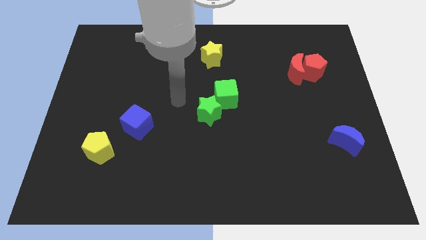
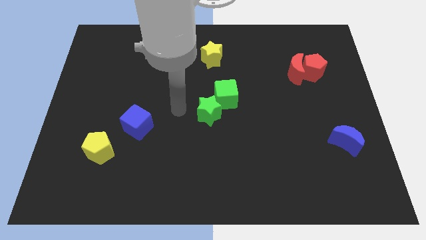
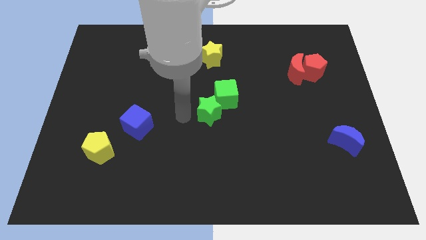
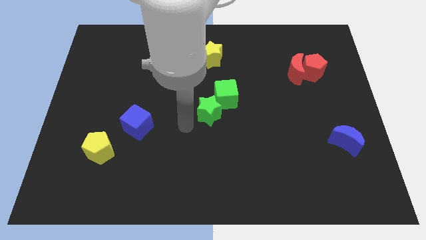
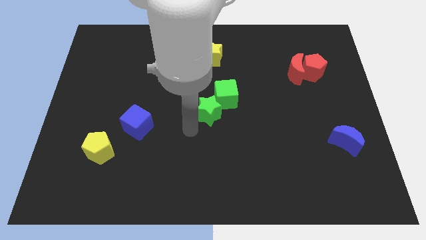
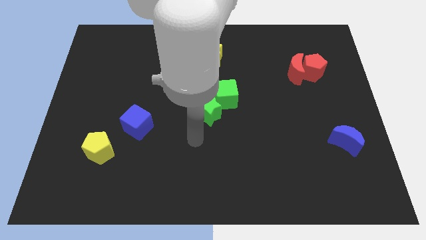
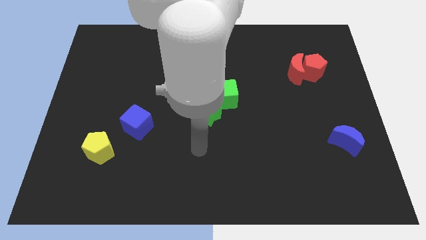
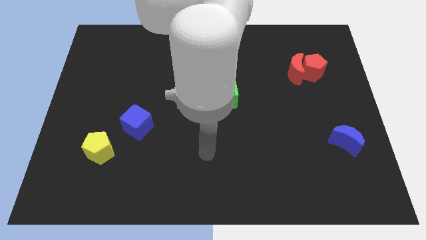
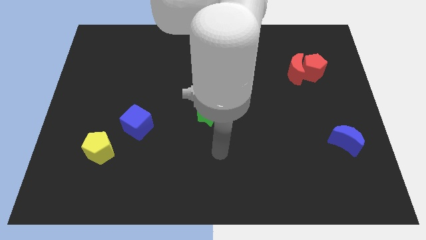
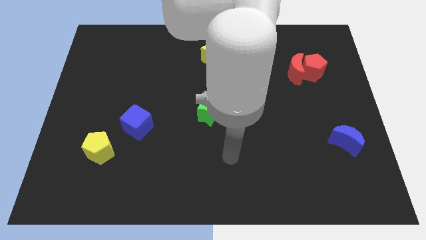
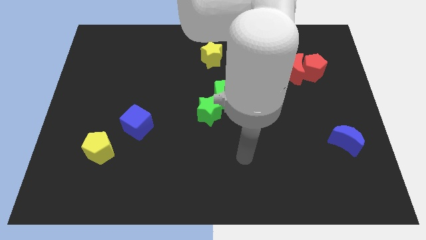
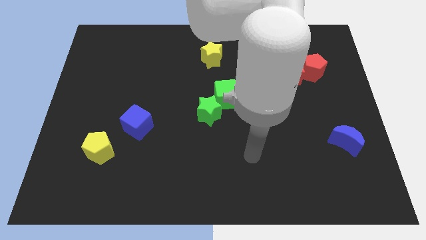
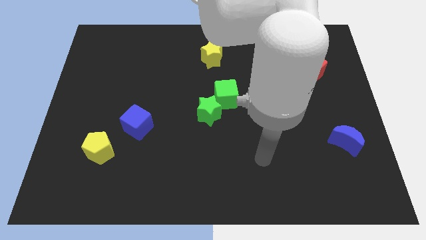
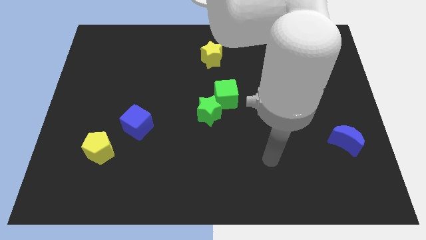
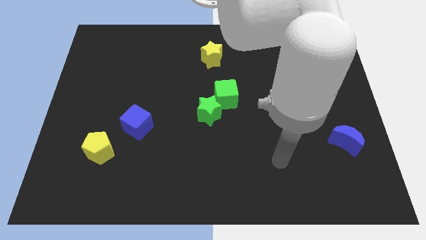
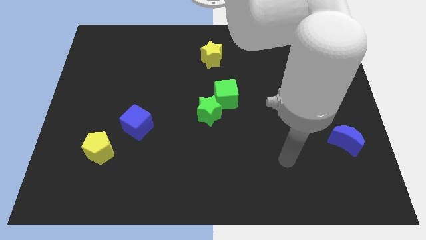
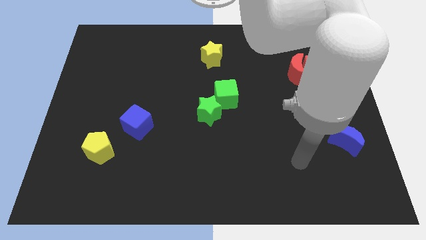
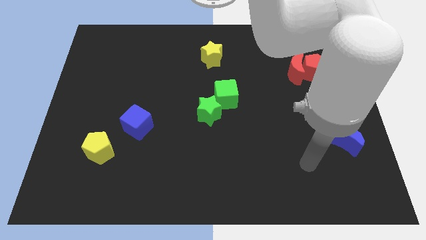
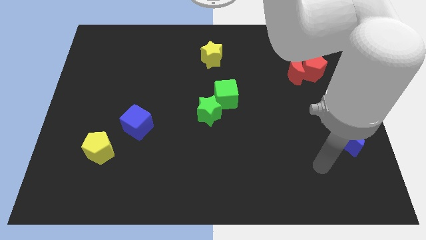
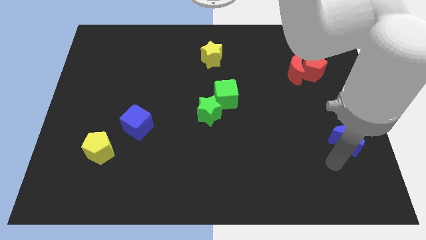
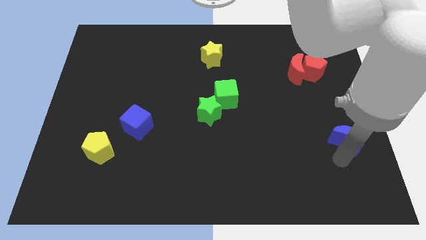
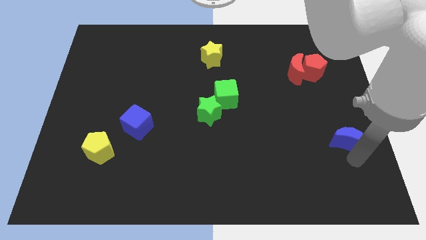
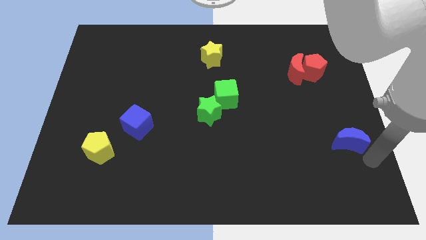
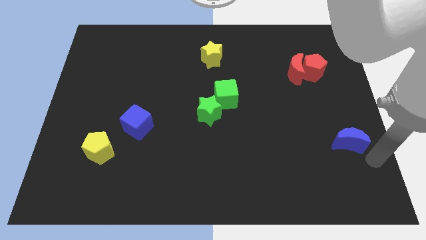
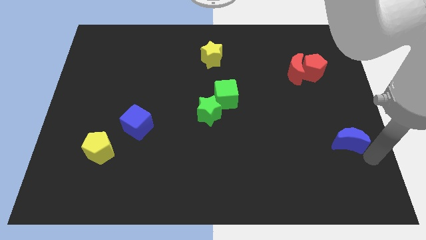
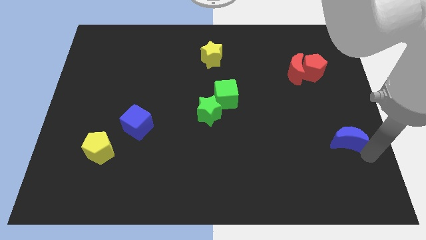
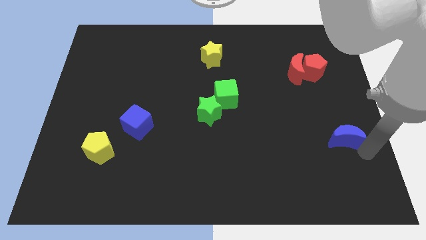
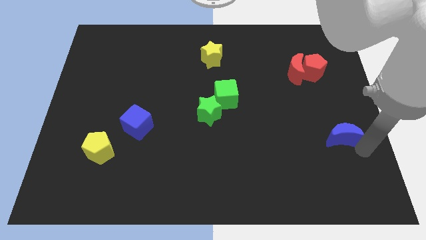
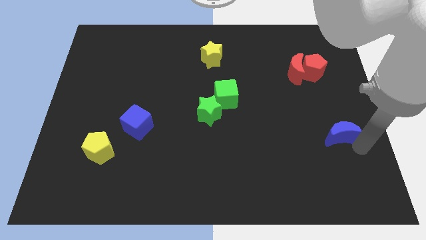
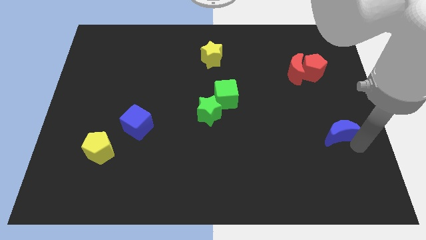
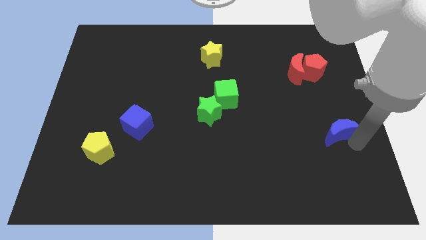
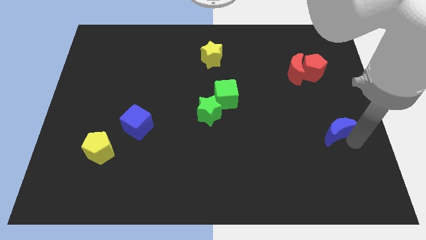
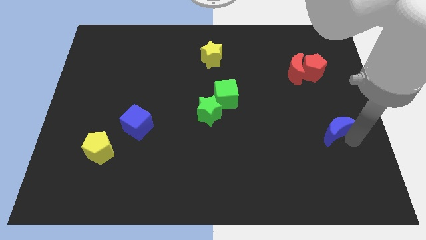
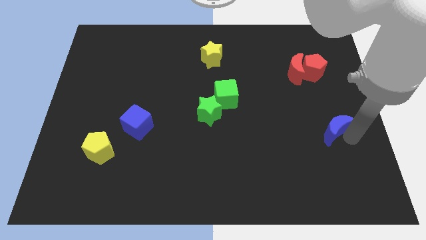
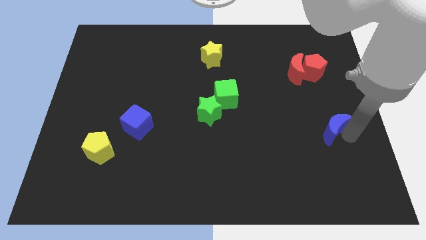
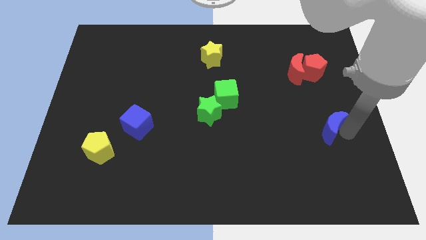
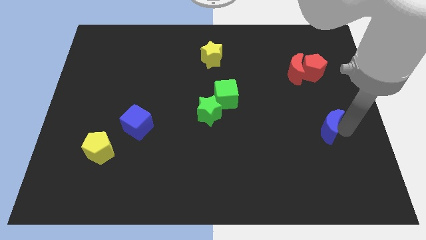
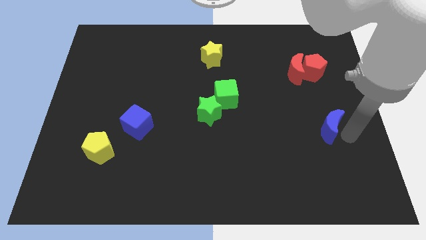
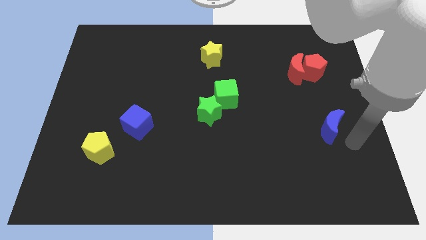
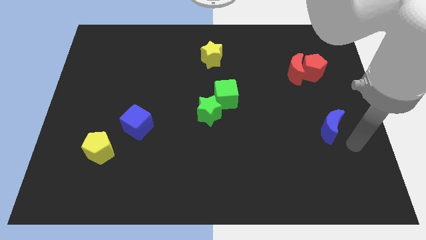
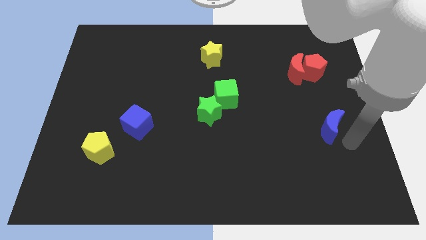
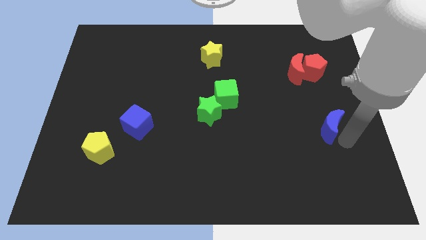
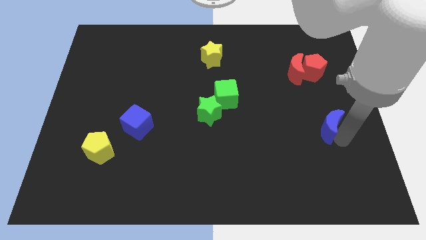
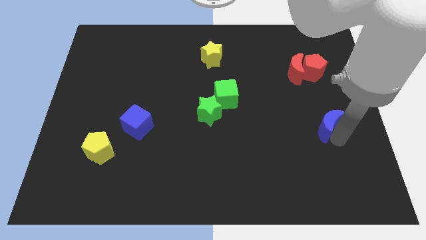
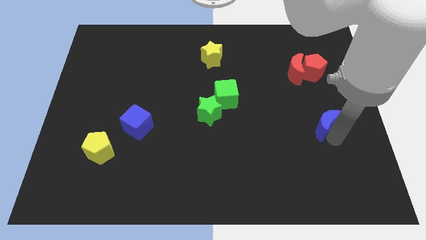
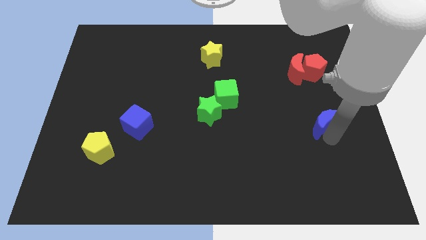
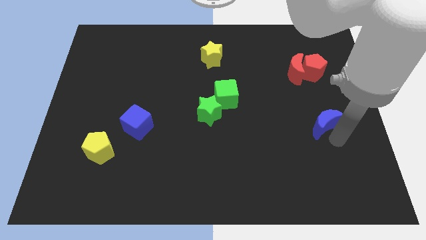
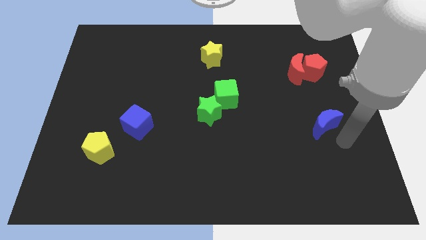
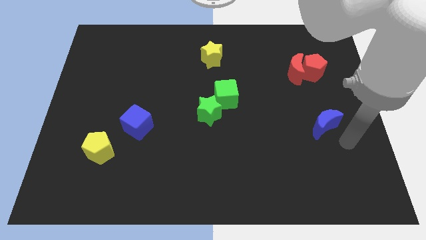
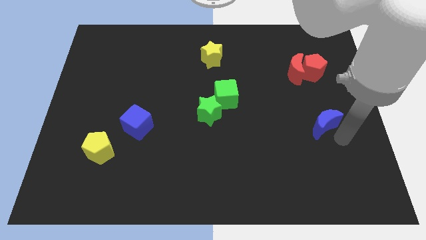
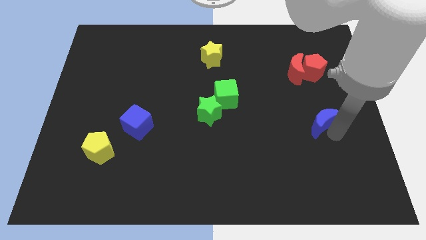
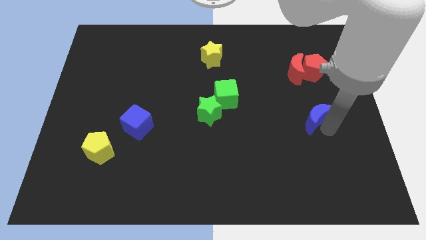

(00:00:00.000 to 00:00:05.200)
slightly move the blue moon up and left

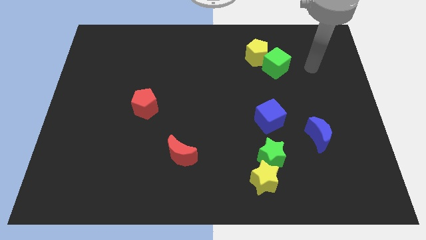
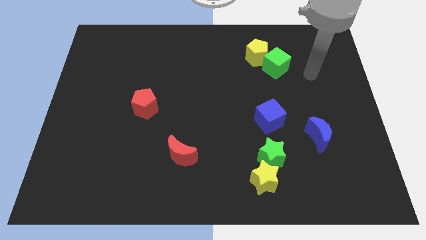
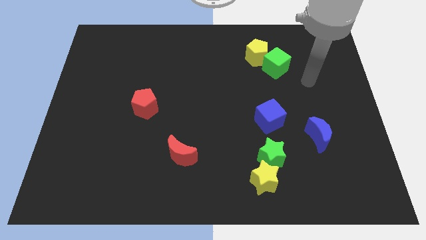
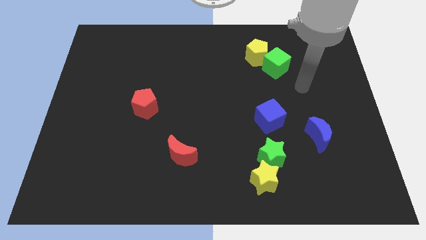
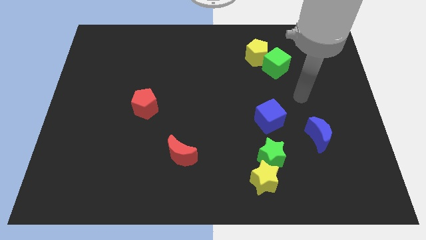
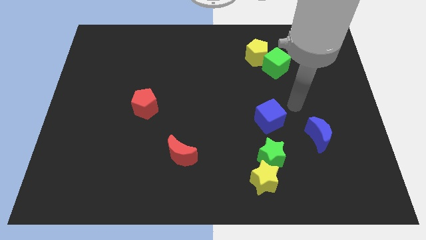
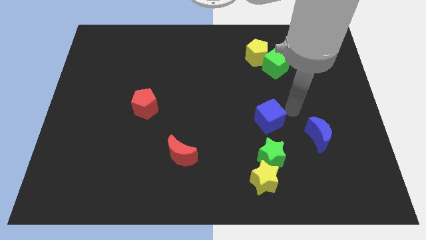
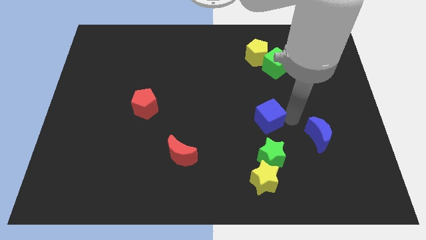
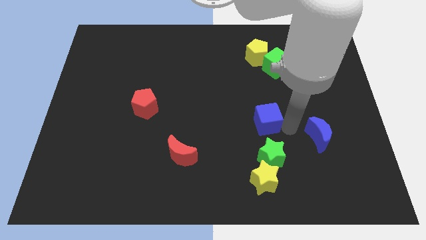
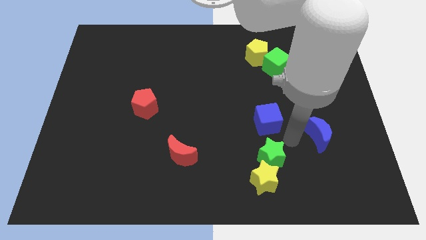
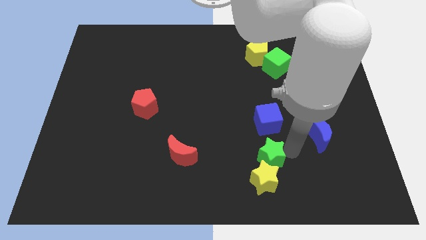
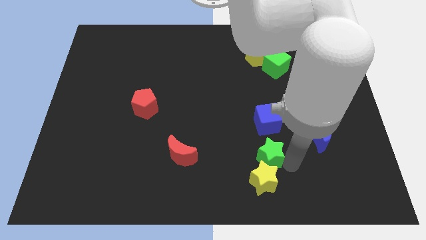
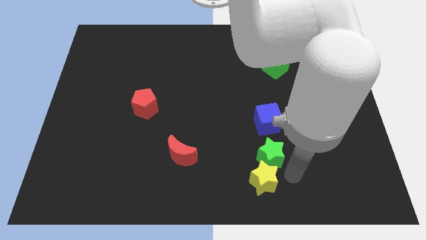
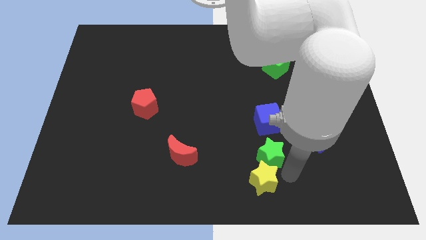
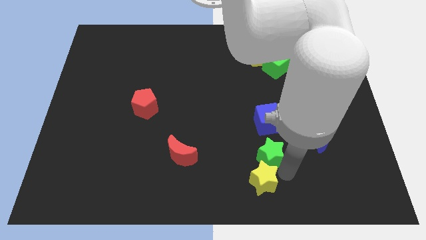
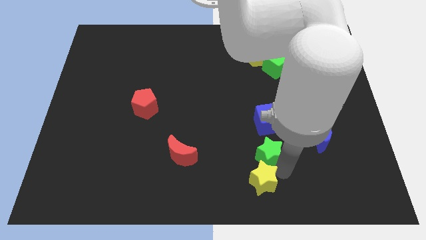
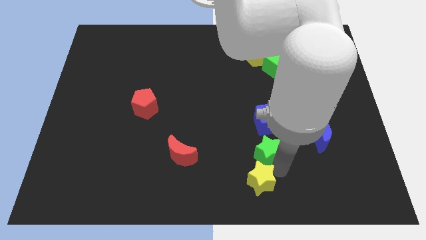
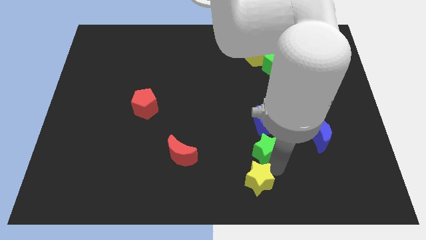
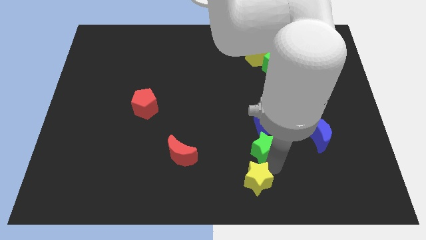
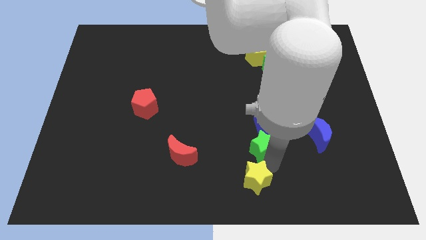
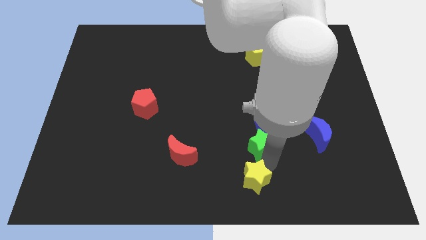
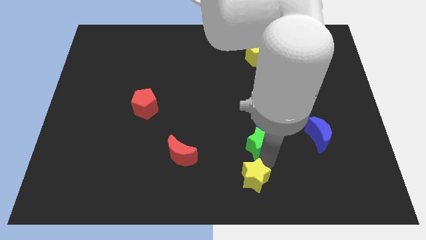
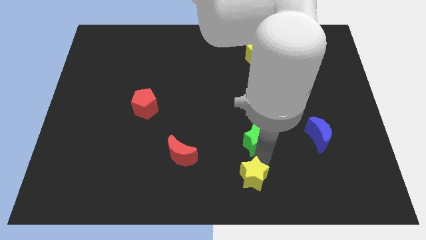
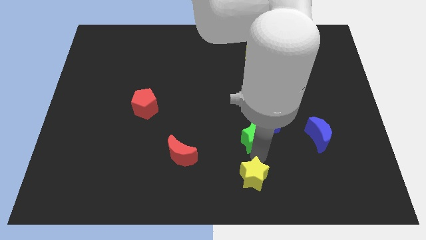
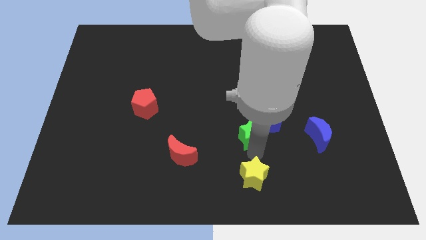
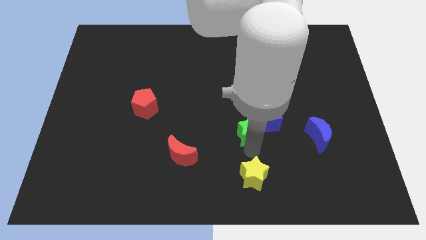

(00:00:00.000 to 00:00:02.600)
slightly move the green star up and to the left
